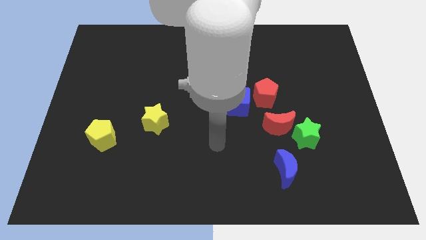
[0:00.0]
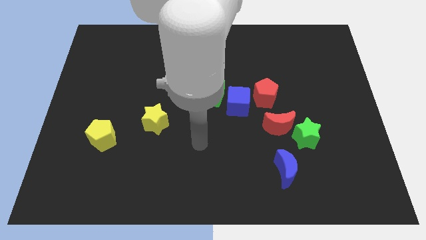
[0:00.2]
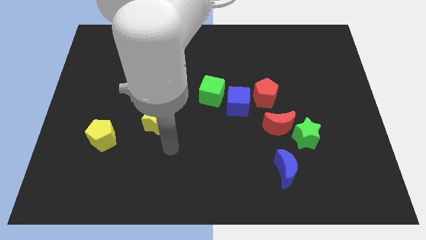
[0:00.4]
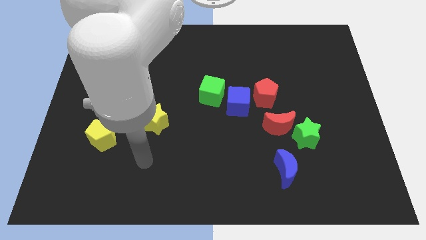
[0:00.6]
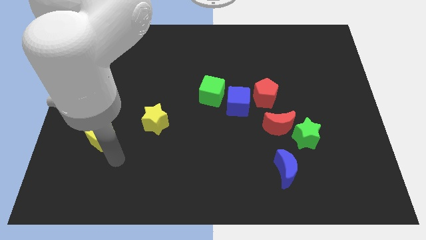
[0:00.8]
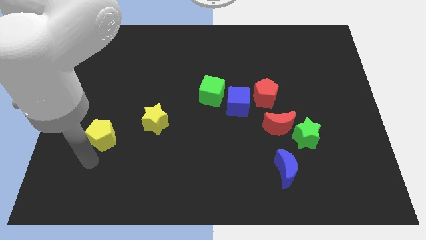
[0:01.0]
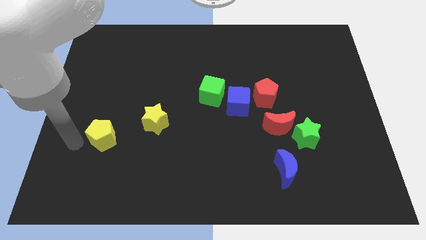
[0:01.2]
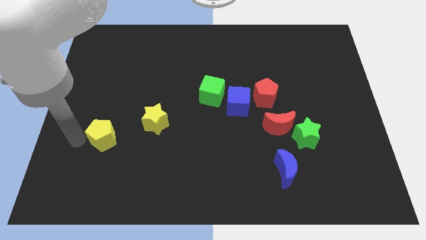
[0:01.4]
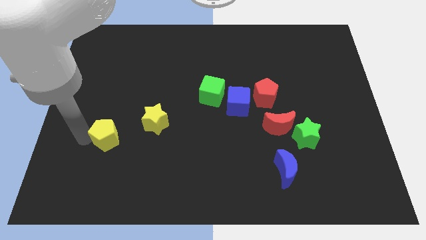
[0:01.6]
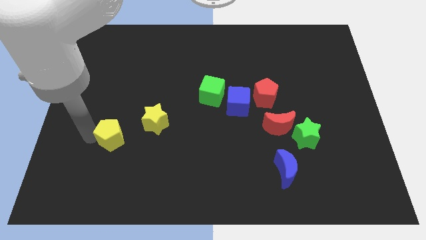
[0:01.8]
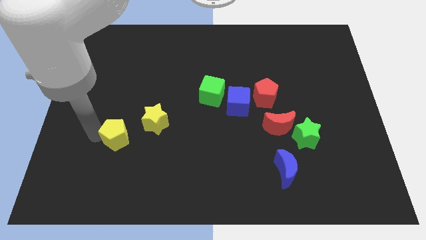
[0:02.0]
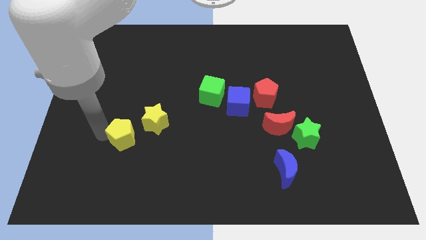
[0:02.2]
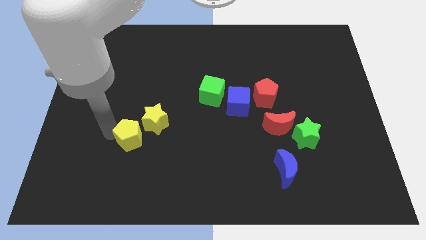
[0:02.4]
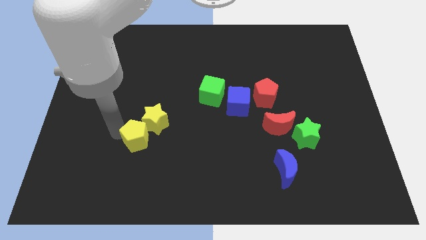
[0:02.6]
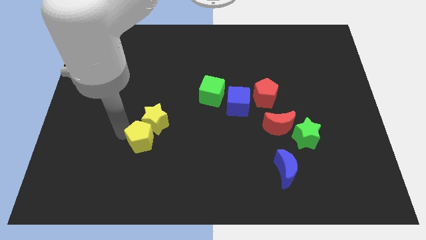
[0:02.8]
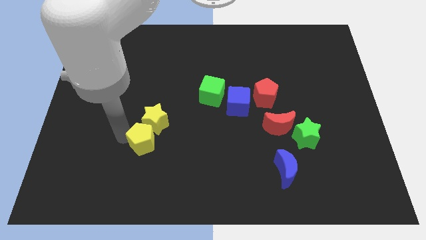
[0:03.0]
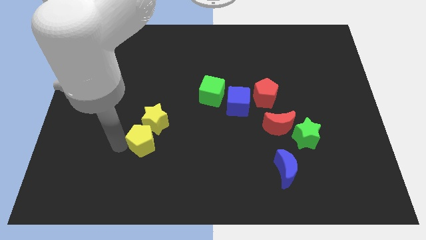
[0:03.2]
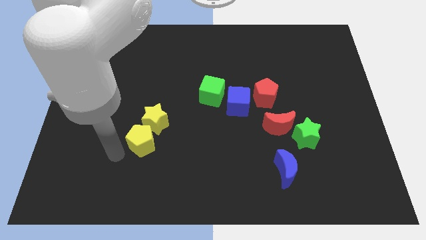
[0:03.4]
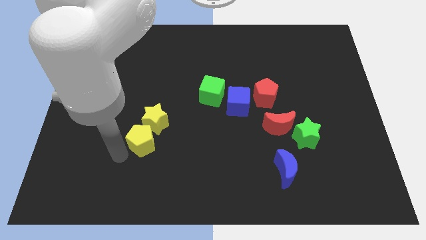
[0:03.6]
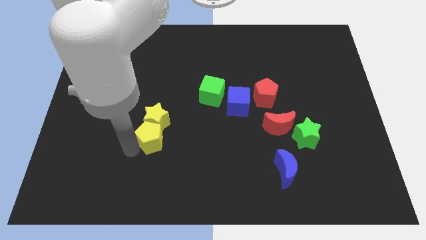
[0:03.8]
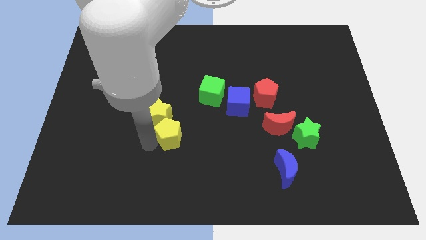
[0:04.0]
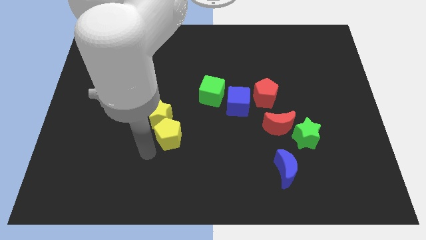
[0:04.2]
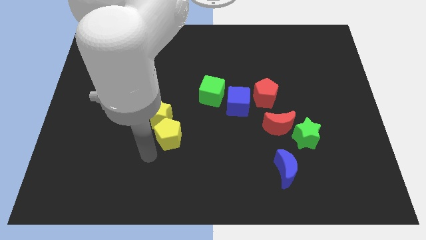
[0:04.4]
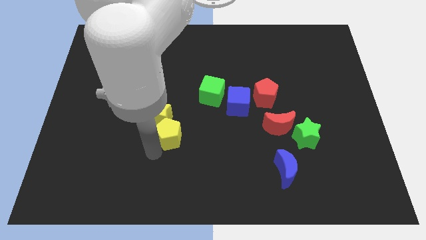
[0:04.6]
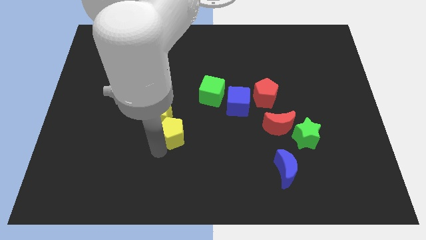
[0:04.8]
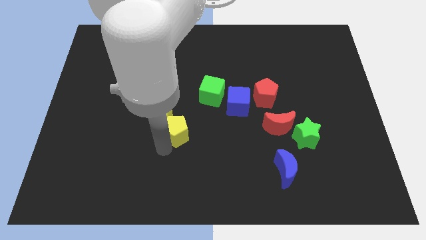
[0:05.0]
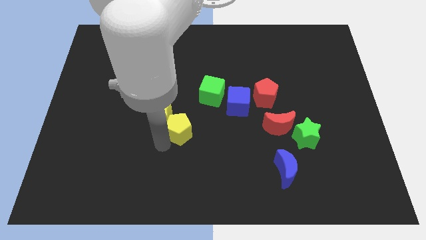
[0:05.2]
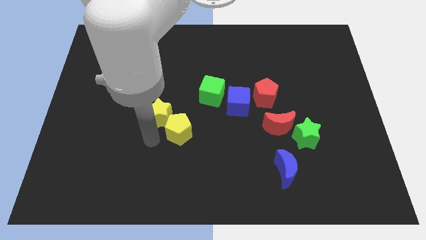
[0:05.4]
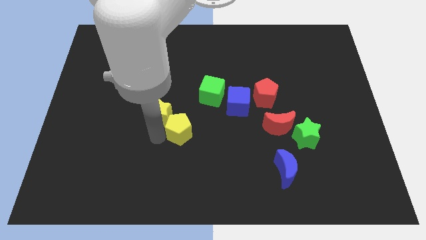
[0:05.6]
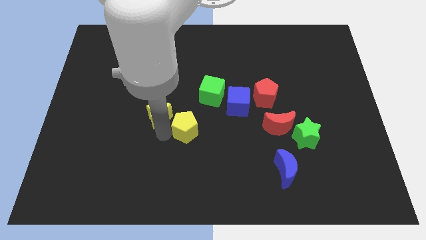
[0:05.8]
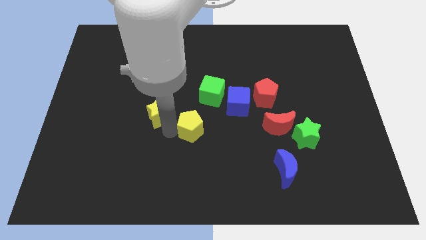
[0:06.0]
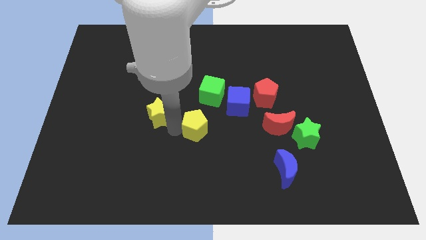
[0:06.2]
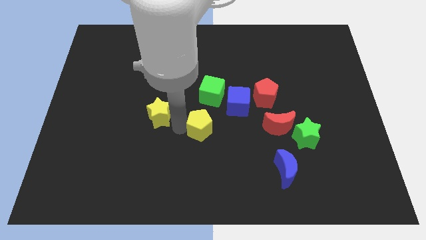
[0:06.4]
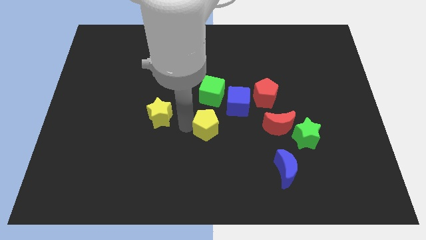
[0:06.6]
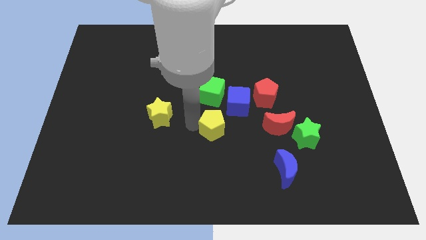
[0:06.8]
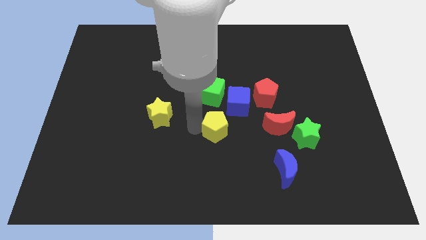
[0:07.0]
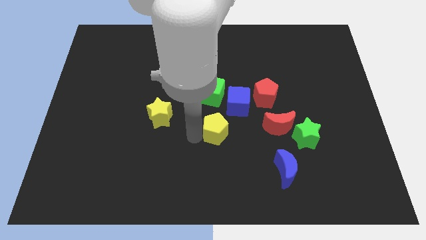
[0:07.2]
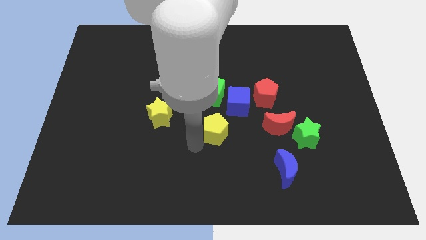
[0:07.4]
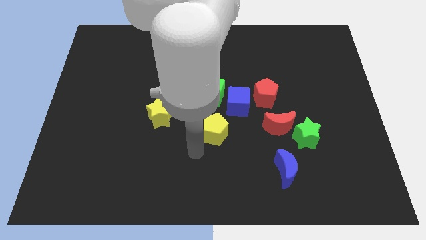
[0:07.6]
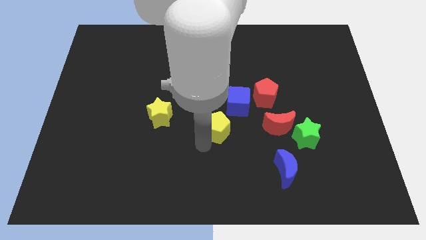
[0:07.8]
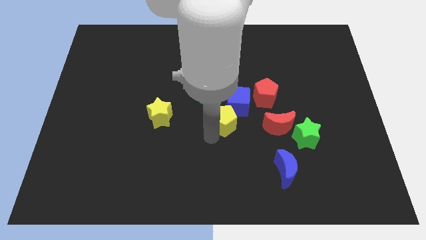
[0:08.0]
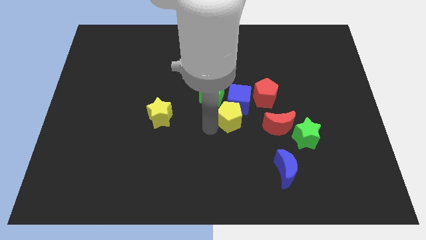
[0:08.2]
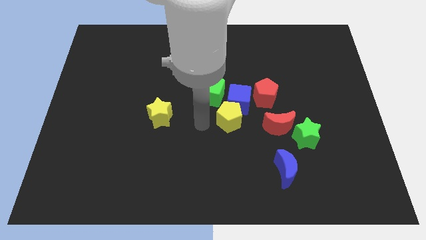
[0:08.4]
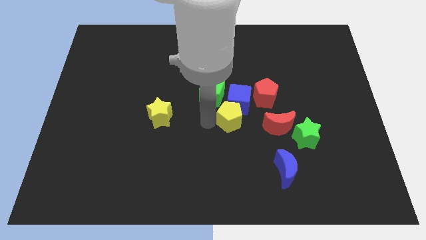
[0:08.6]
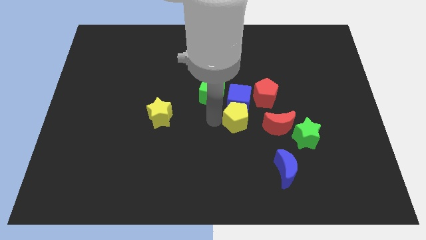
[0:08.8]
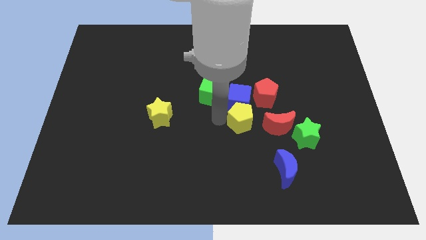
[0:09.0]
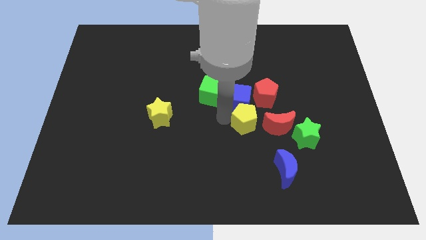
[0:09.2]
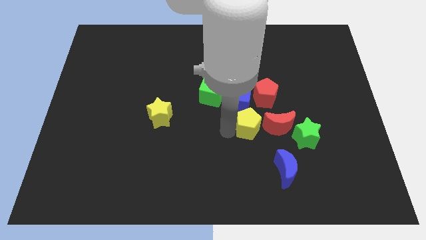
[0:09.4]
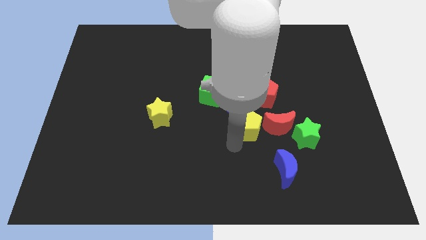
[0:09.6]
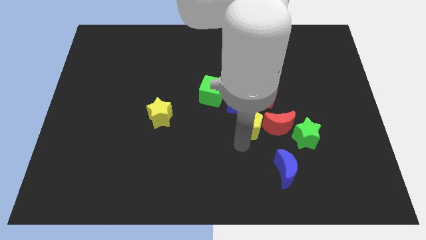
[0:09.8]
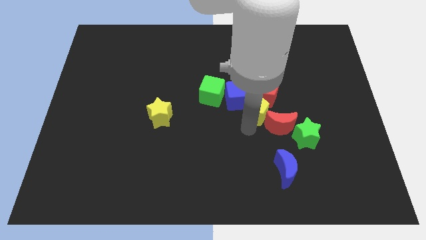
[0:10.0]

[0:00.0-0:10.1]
move the yellow pentagon next to the red pentagon

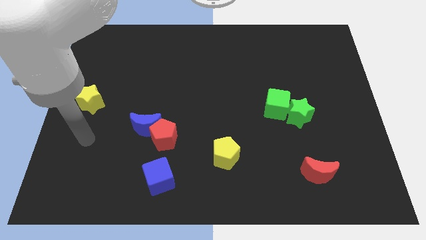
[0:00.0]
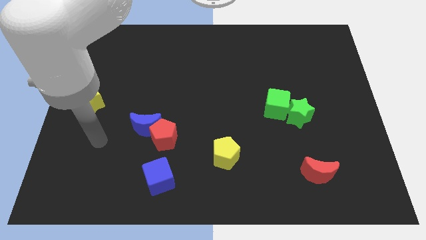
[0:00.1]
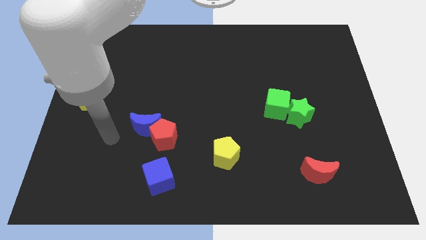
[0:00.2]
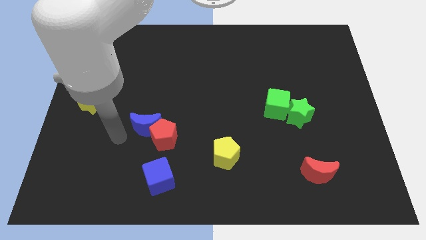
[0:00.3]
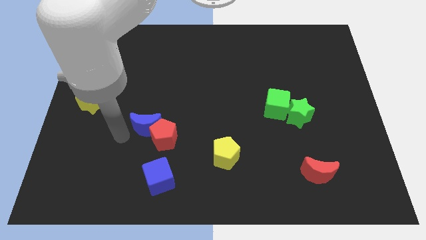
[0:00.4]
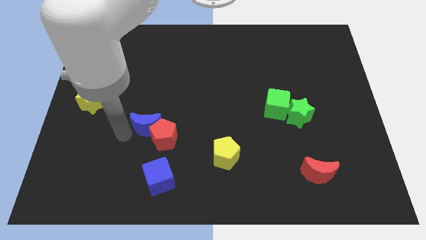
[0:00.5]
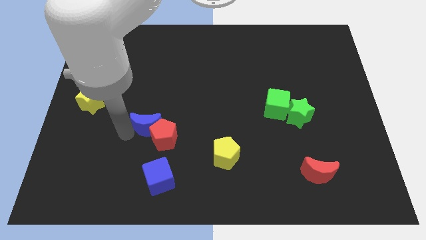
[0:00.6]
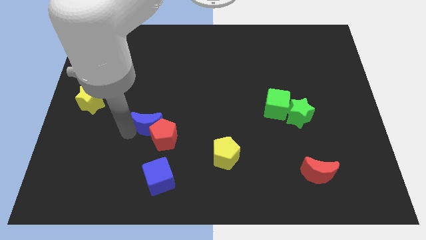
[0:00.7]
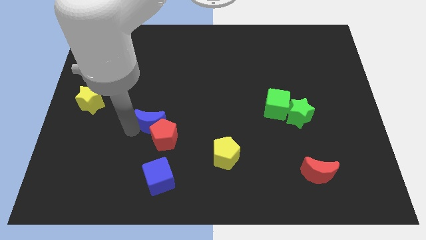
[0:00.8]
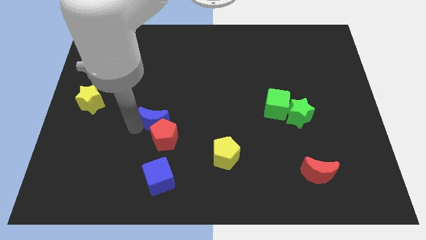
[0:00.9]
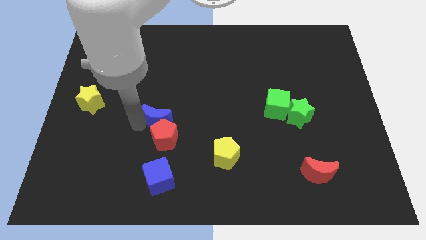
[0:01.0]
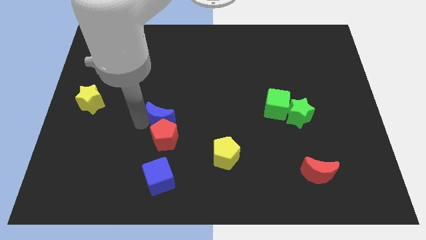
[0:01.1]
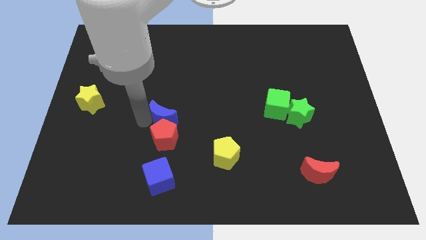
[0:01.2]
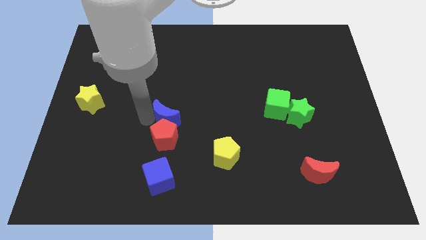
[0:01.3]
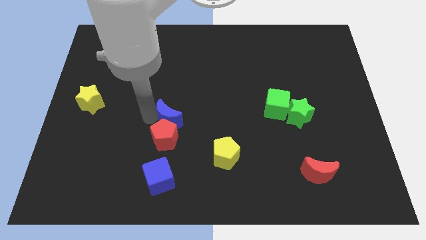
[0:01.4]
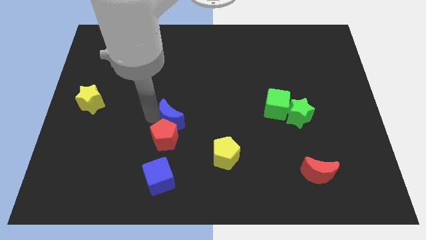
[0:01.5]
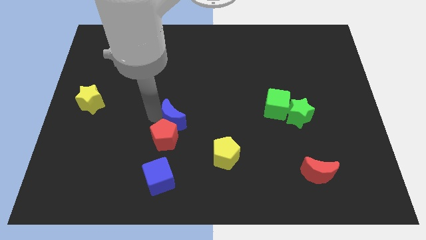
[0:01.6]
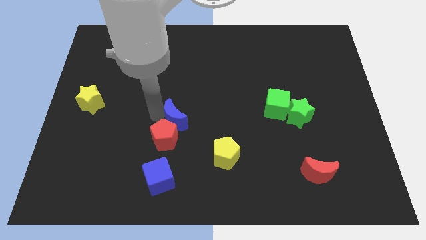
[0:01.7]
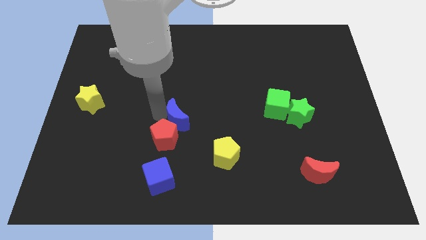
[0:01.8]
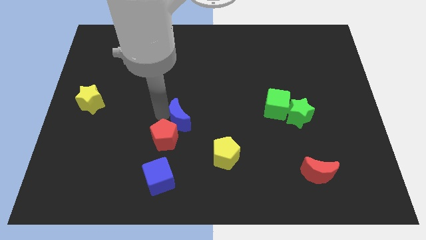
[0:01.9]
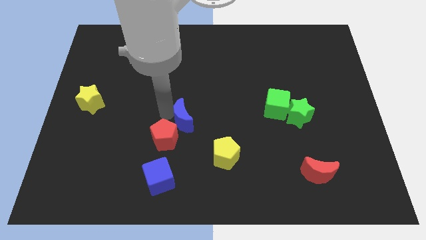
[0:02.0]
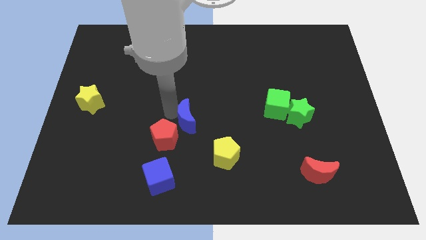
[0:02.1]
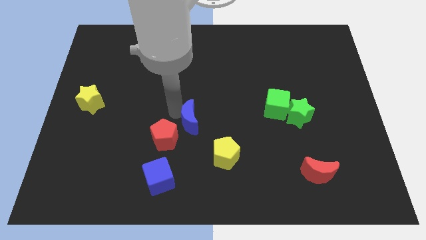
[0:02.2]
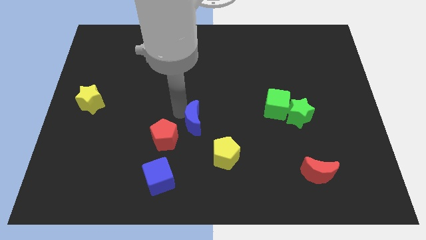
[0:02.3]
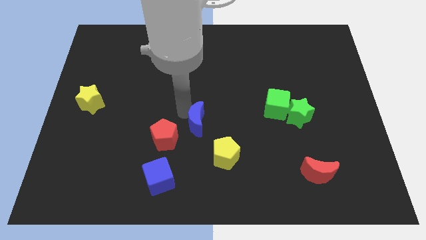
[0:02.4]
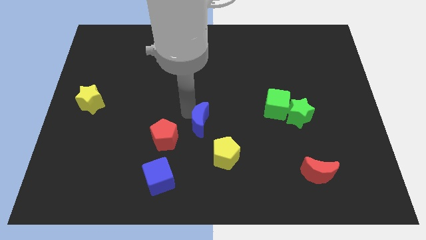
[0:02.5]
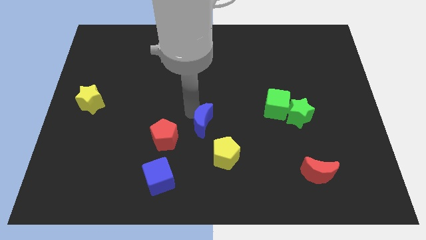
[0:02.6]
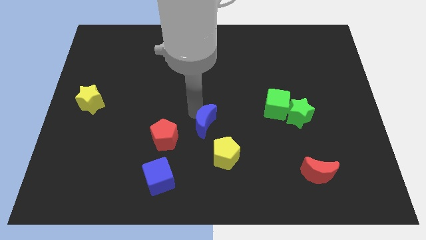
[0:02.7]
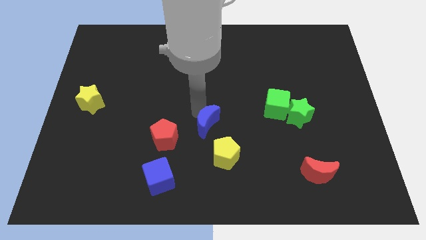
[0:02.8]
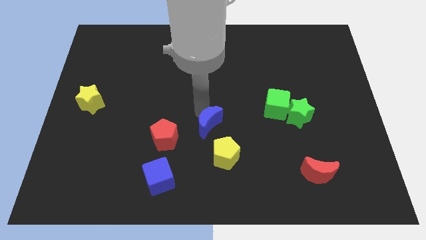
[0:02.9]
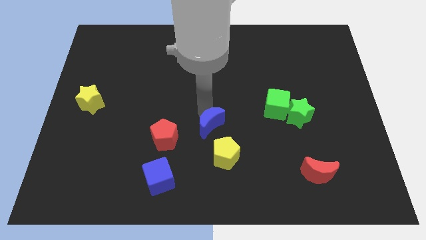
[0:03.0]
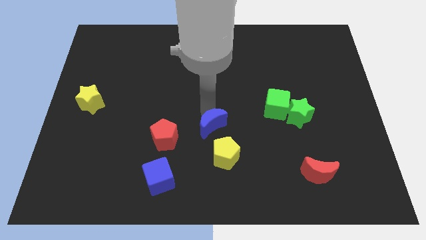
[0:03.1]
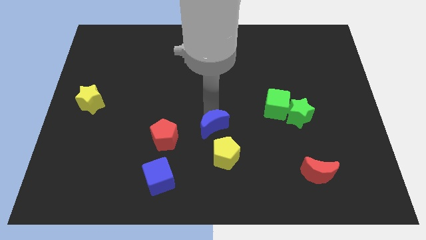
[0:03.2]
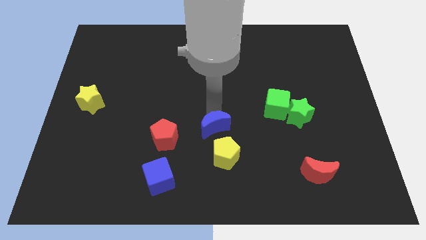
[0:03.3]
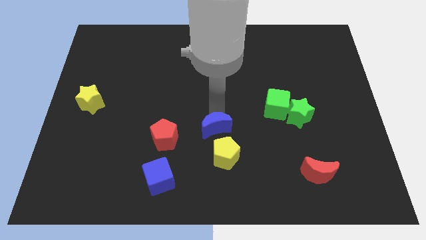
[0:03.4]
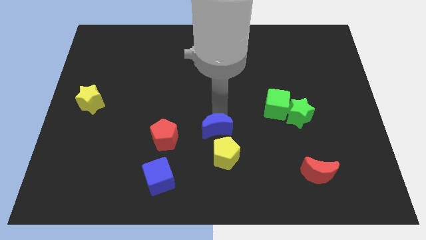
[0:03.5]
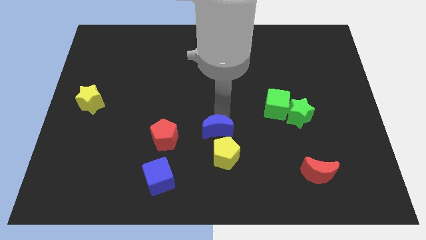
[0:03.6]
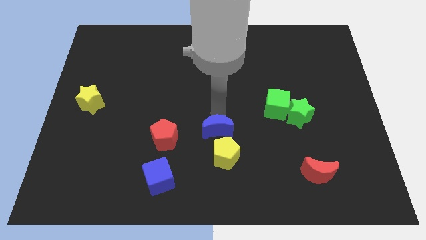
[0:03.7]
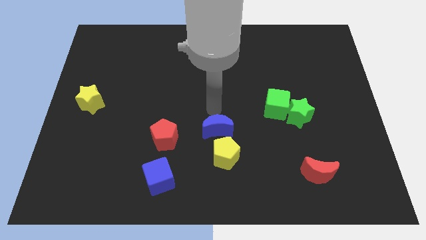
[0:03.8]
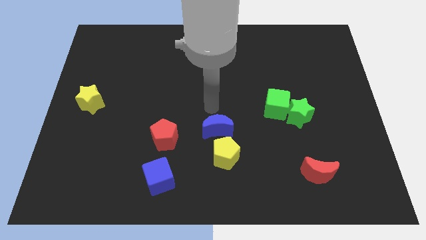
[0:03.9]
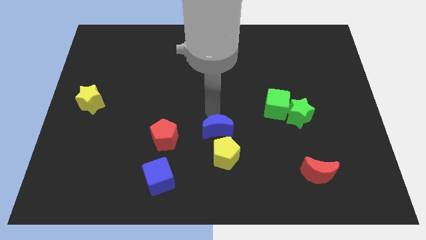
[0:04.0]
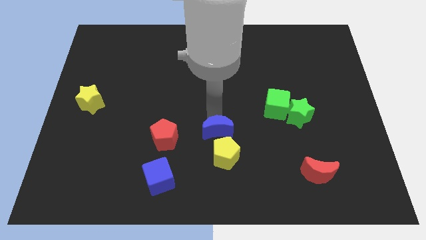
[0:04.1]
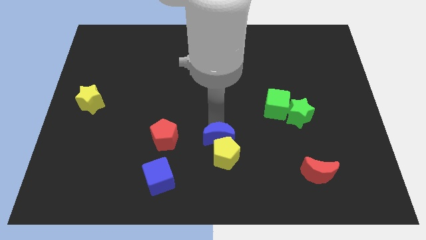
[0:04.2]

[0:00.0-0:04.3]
push the blue moon next to the yellow pentagon
